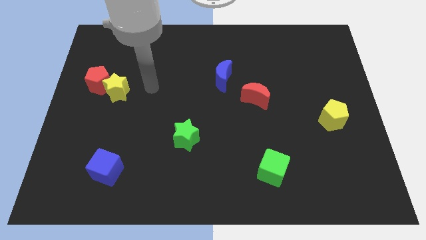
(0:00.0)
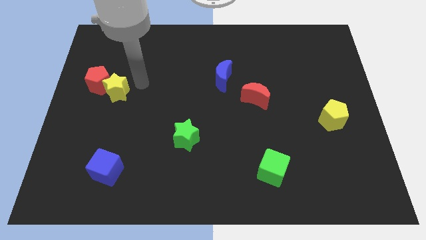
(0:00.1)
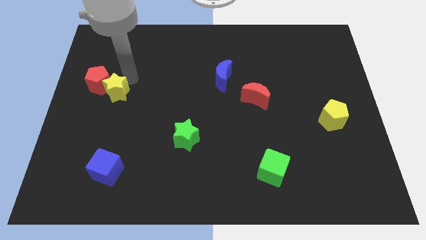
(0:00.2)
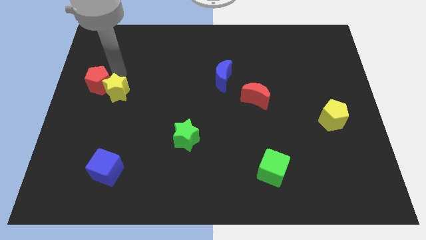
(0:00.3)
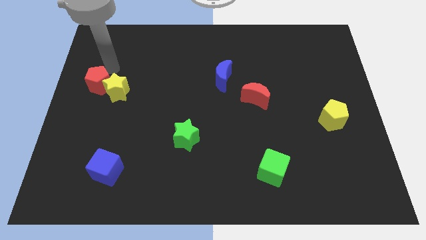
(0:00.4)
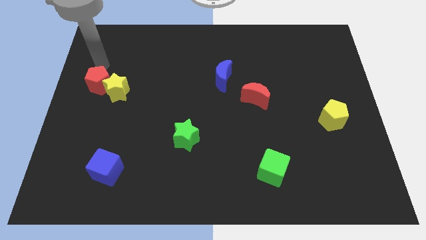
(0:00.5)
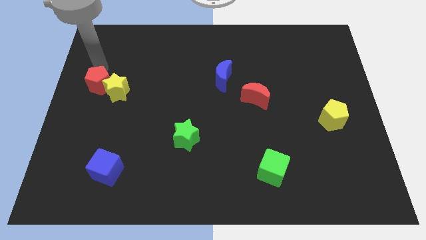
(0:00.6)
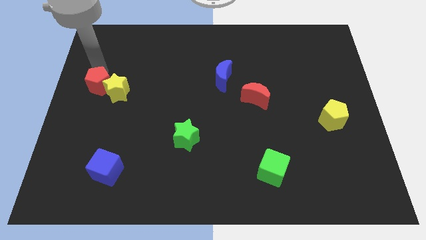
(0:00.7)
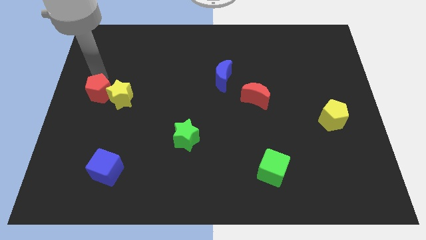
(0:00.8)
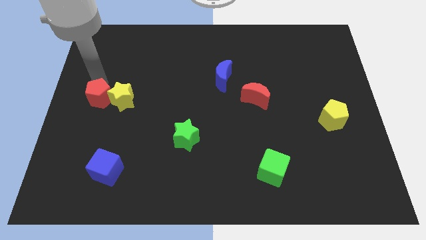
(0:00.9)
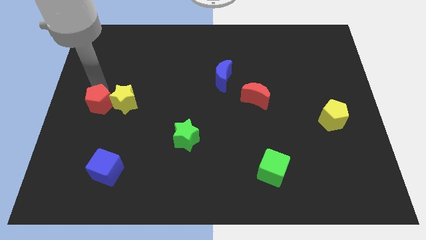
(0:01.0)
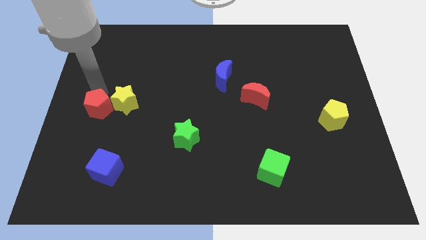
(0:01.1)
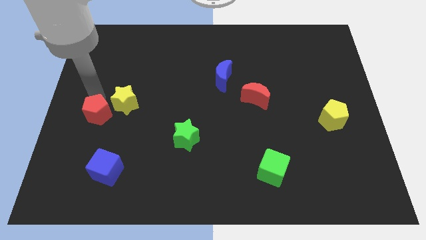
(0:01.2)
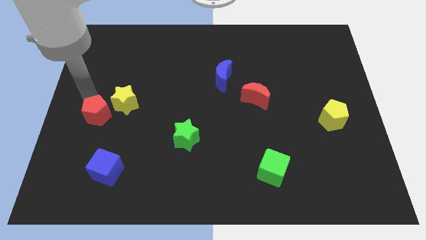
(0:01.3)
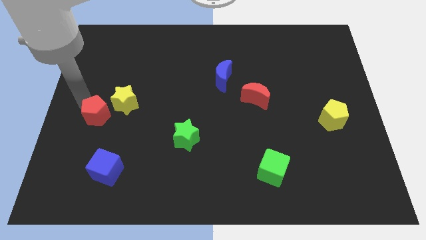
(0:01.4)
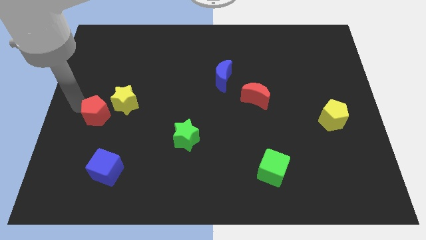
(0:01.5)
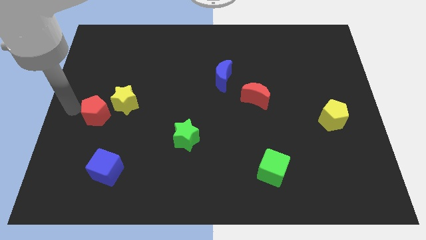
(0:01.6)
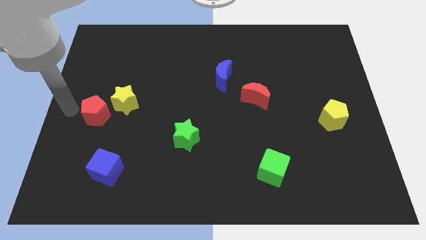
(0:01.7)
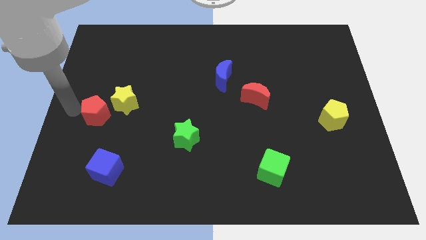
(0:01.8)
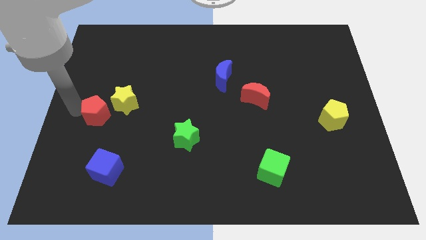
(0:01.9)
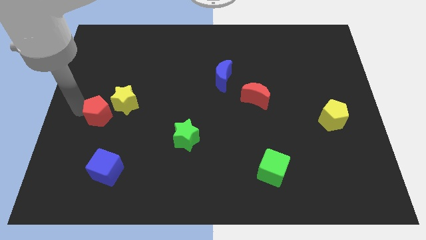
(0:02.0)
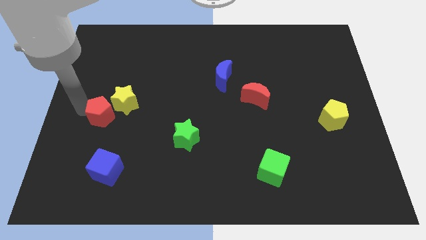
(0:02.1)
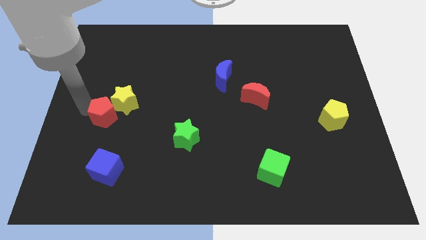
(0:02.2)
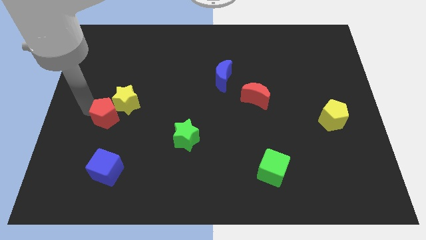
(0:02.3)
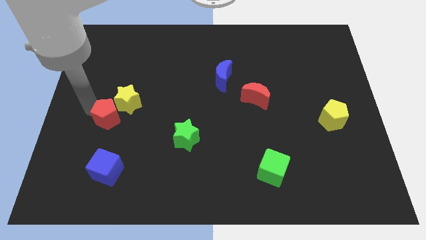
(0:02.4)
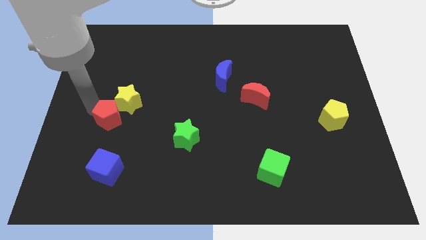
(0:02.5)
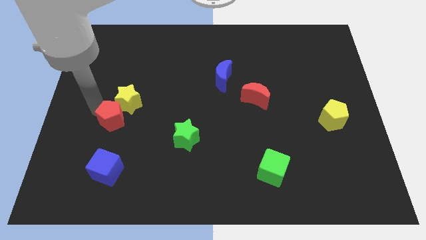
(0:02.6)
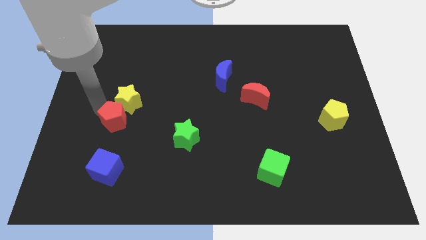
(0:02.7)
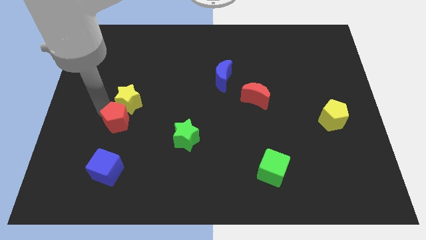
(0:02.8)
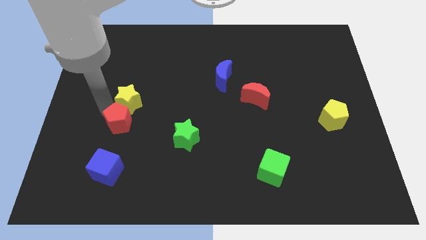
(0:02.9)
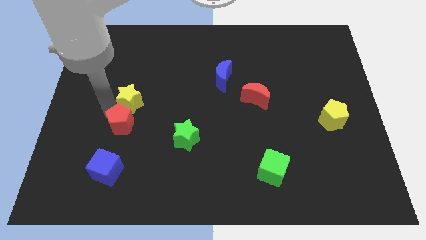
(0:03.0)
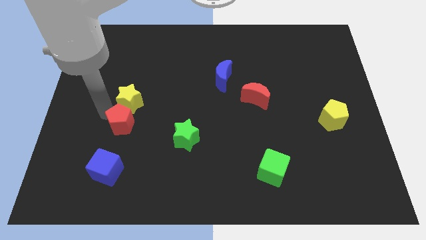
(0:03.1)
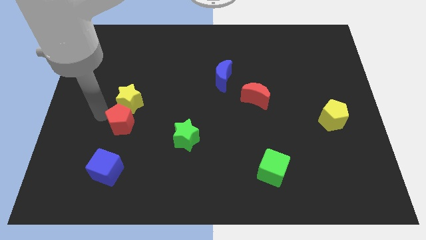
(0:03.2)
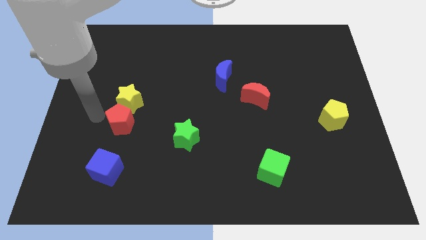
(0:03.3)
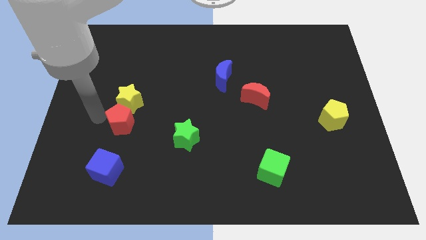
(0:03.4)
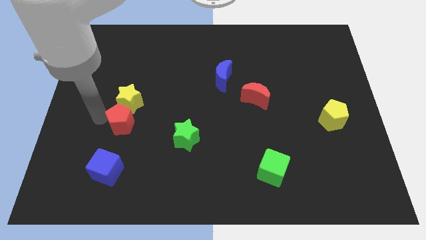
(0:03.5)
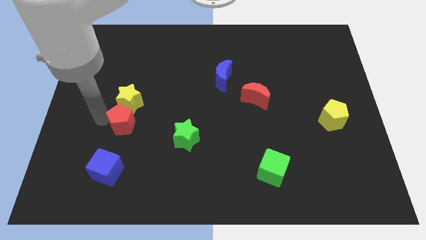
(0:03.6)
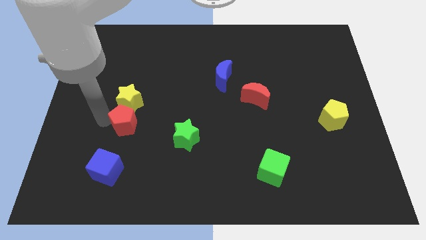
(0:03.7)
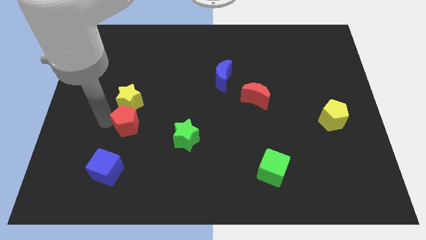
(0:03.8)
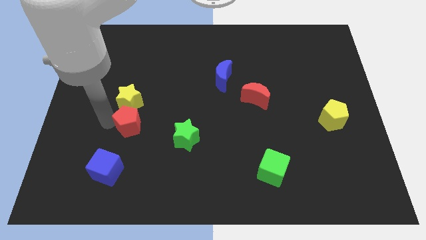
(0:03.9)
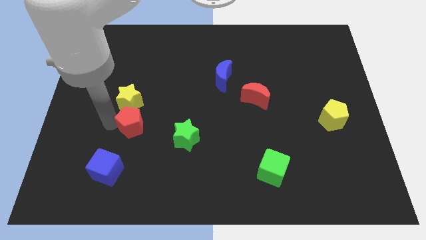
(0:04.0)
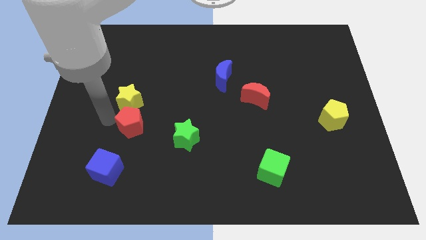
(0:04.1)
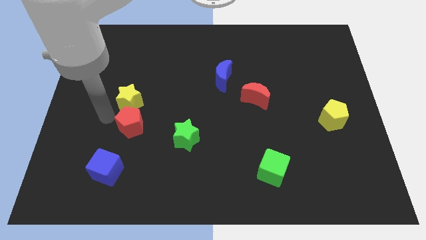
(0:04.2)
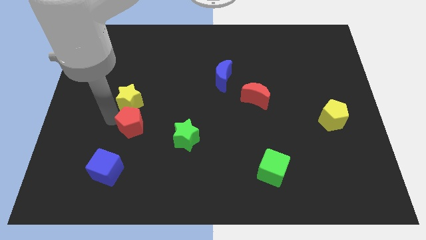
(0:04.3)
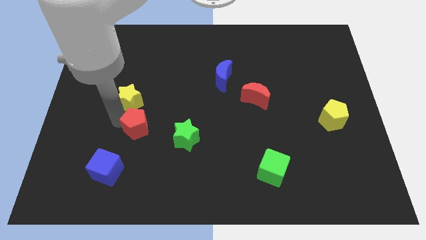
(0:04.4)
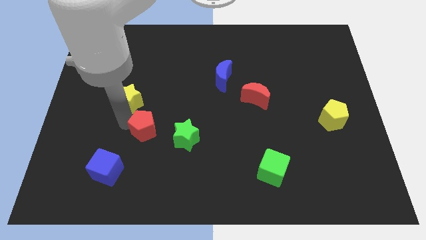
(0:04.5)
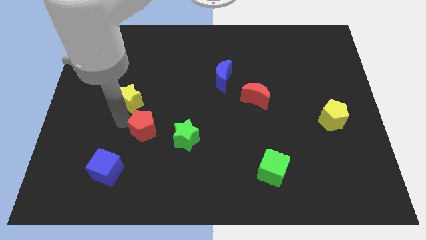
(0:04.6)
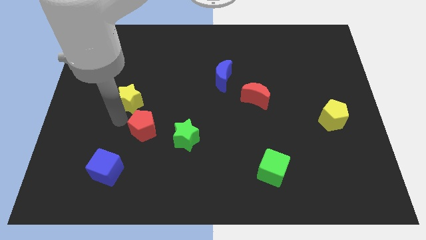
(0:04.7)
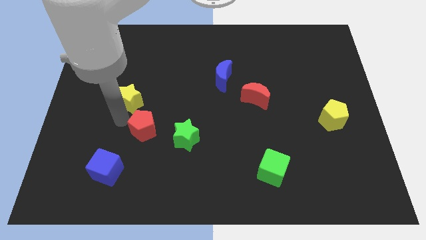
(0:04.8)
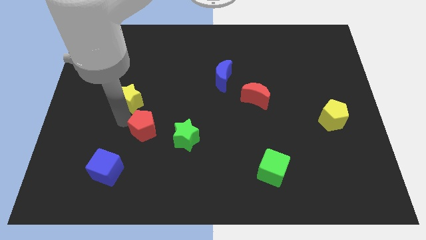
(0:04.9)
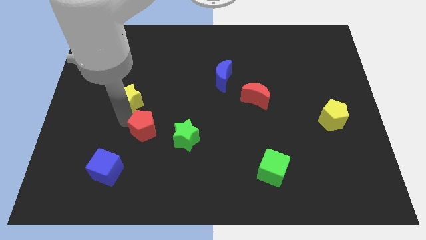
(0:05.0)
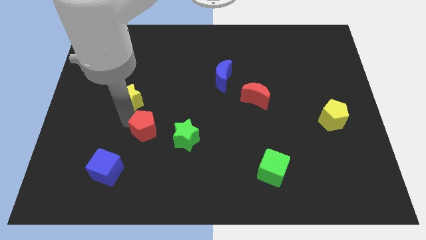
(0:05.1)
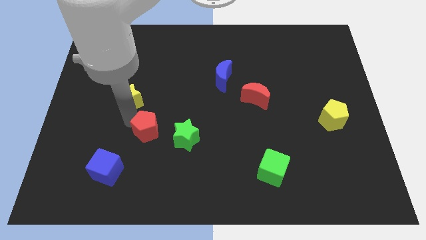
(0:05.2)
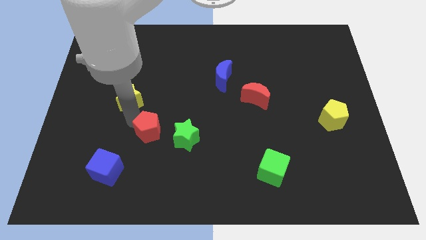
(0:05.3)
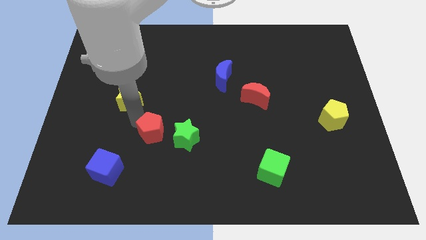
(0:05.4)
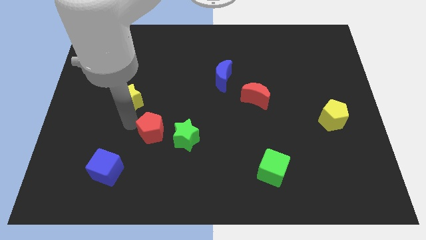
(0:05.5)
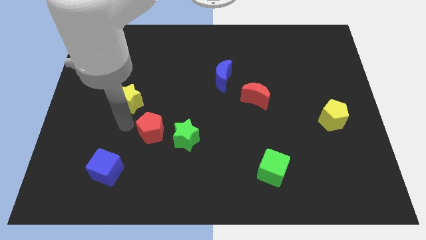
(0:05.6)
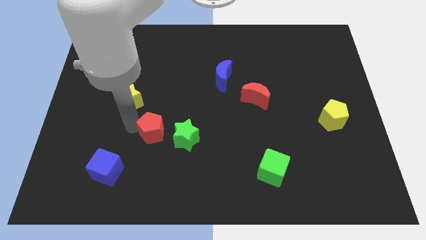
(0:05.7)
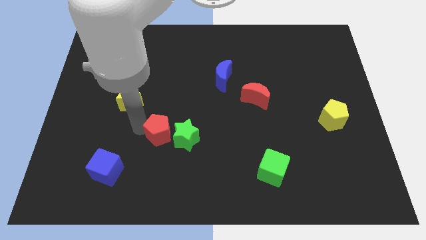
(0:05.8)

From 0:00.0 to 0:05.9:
push the red pentagon to the green star

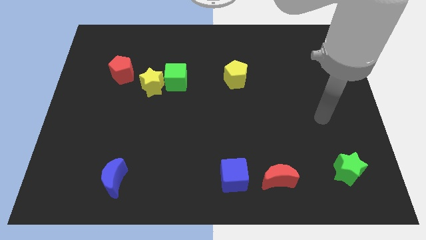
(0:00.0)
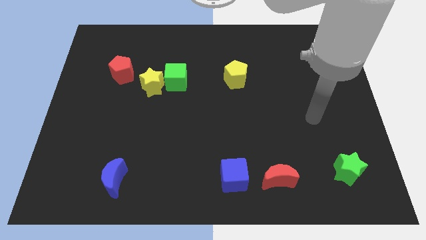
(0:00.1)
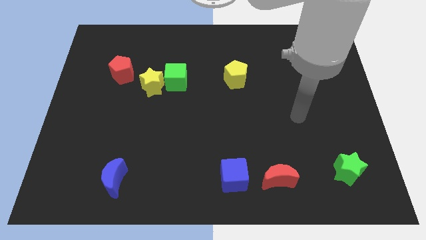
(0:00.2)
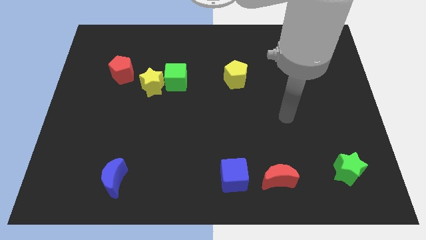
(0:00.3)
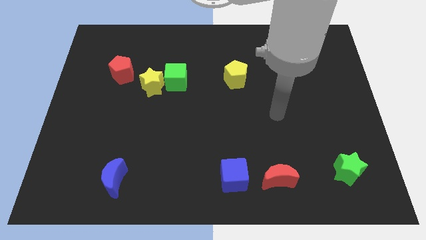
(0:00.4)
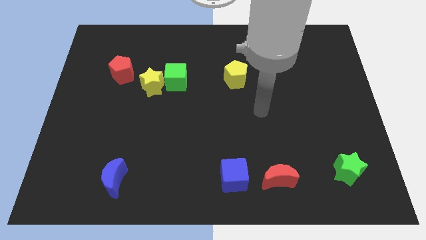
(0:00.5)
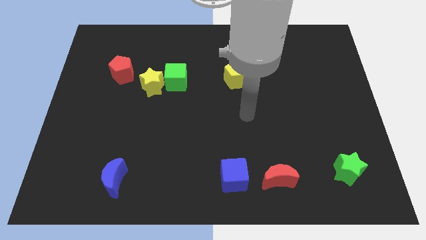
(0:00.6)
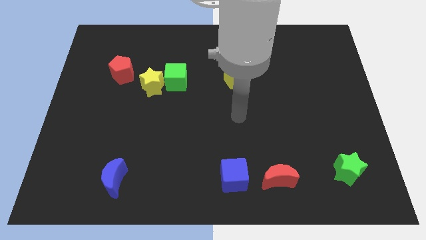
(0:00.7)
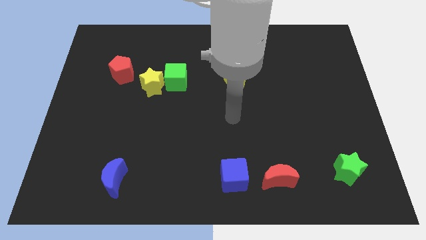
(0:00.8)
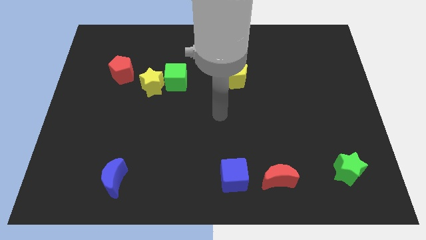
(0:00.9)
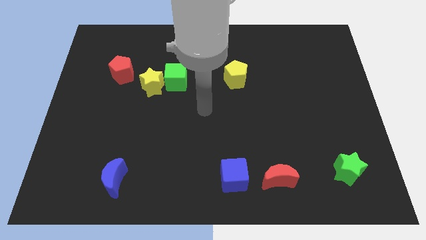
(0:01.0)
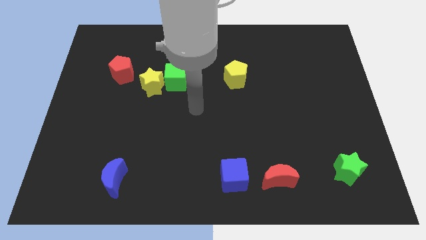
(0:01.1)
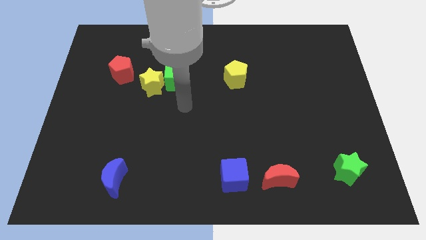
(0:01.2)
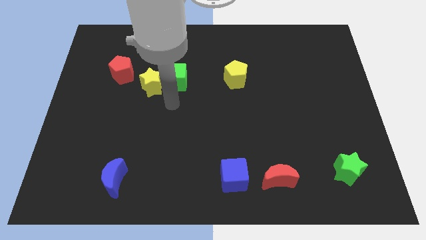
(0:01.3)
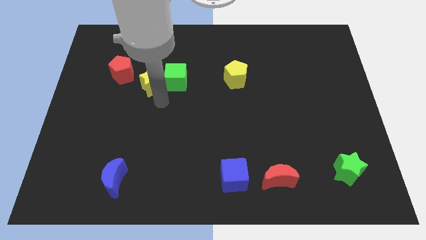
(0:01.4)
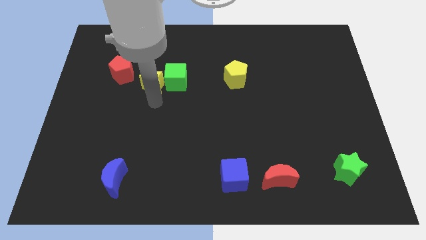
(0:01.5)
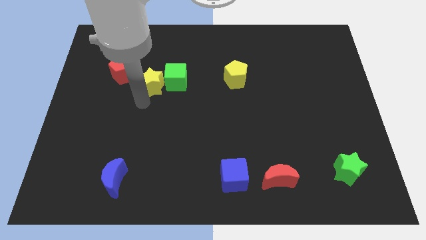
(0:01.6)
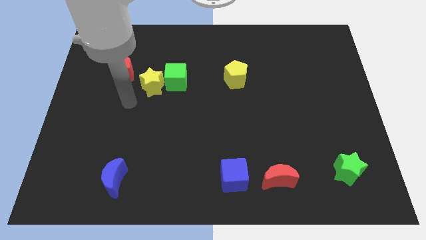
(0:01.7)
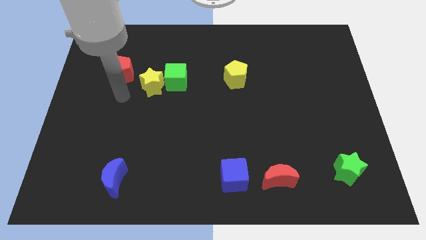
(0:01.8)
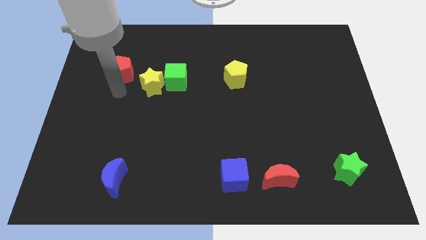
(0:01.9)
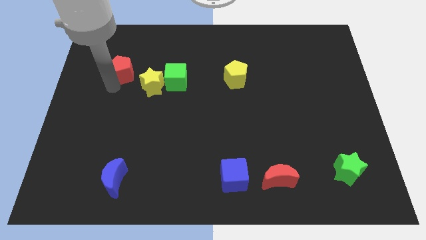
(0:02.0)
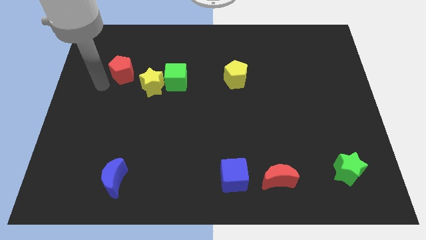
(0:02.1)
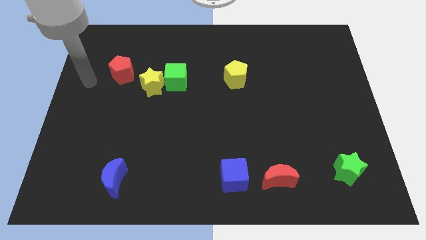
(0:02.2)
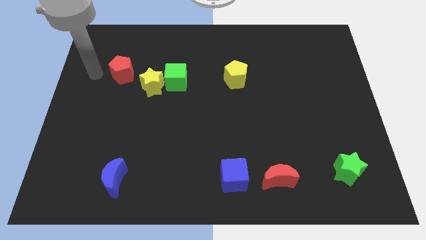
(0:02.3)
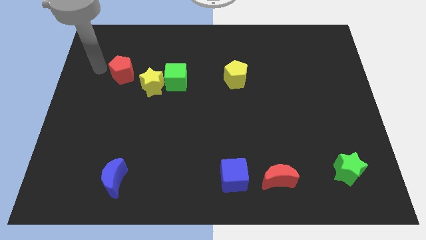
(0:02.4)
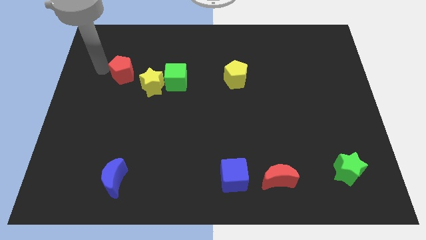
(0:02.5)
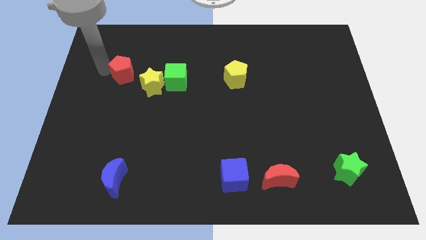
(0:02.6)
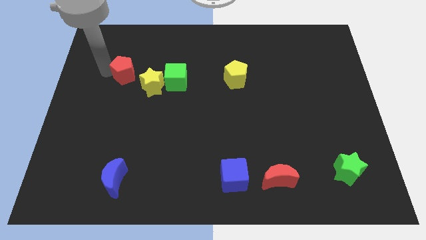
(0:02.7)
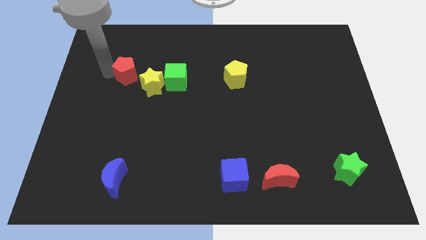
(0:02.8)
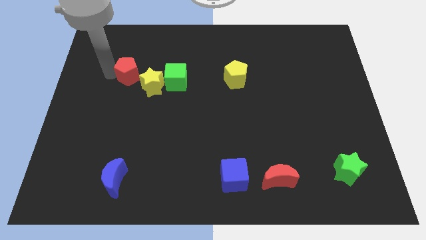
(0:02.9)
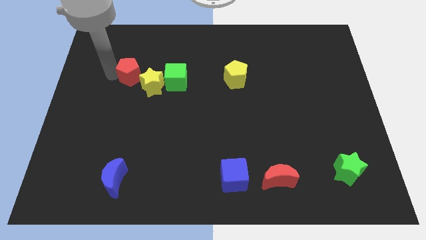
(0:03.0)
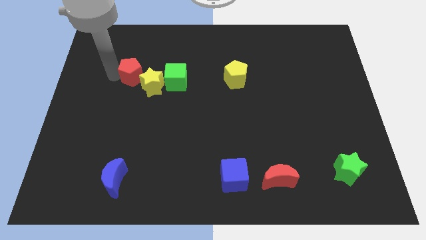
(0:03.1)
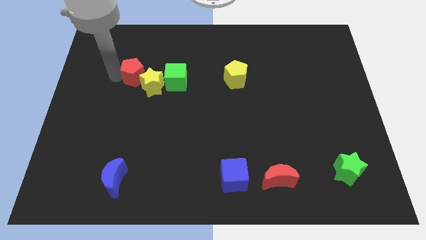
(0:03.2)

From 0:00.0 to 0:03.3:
slide the red pentagon next to the yellow star
